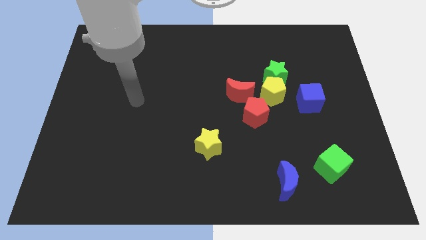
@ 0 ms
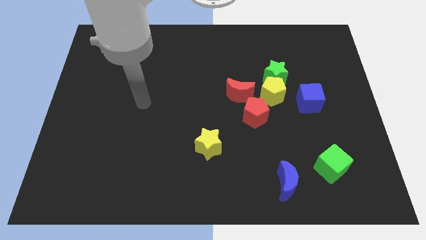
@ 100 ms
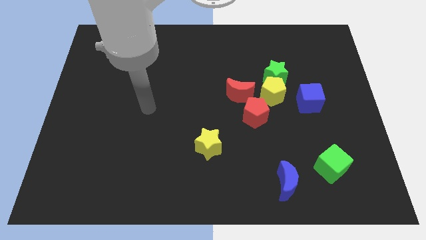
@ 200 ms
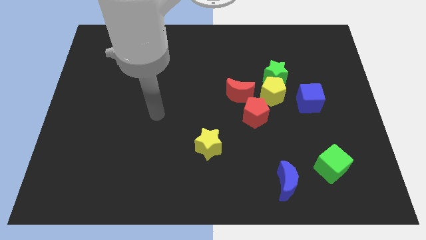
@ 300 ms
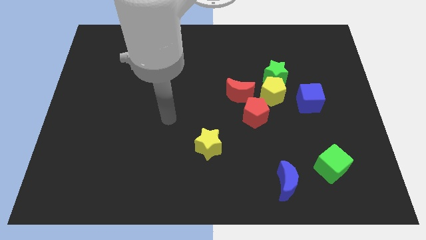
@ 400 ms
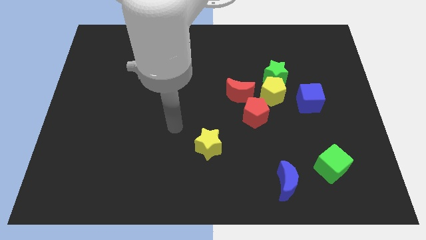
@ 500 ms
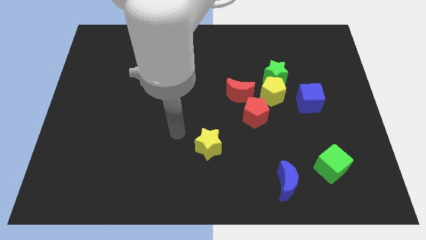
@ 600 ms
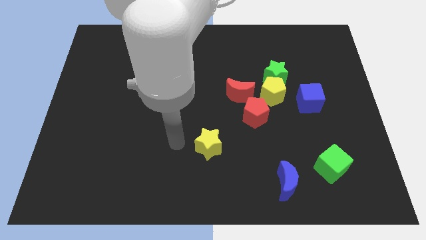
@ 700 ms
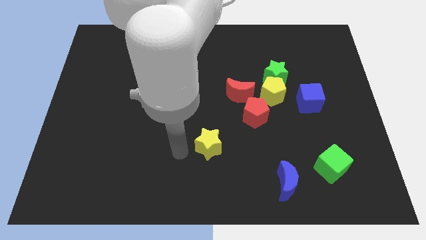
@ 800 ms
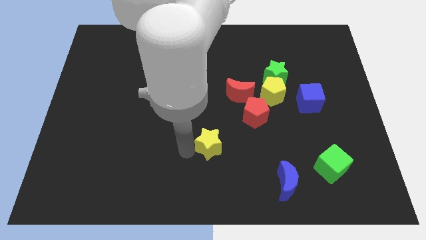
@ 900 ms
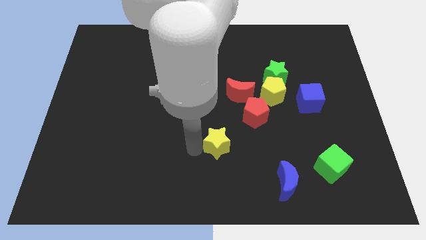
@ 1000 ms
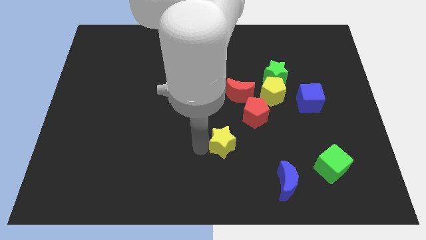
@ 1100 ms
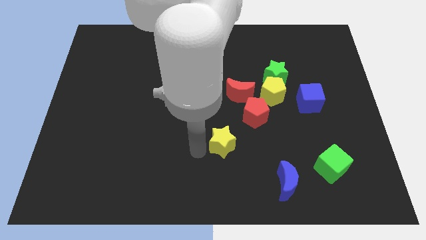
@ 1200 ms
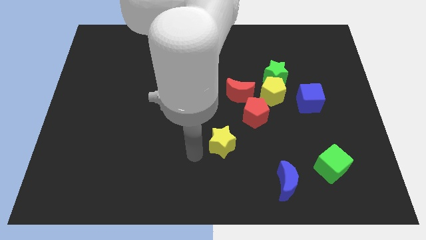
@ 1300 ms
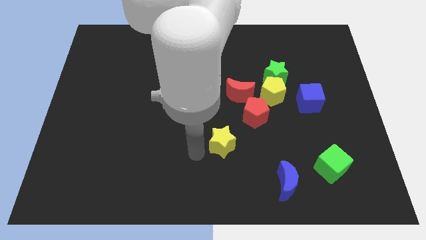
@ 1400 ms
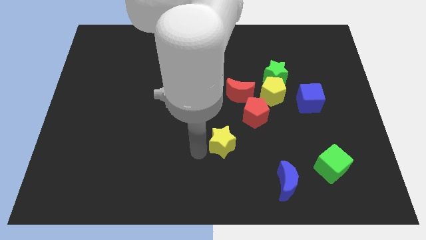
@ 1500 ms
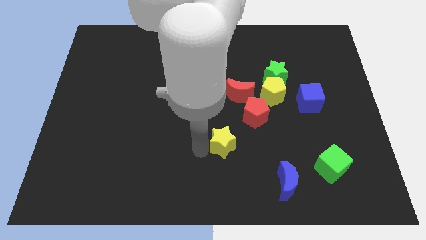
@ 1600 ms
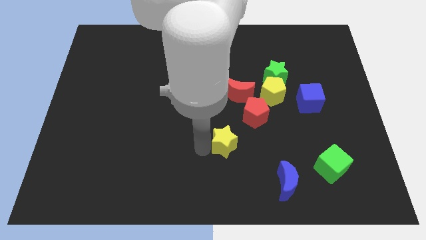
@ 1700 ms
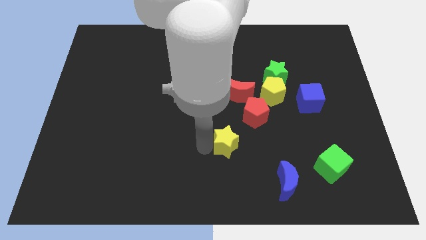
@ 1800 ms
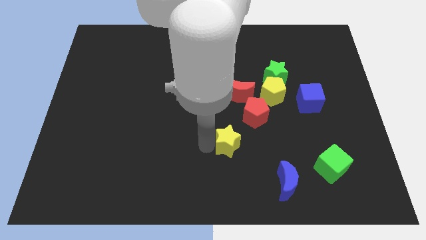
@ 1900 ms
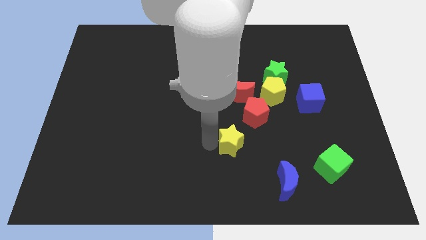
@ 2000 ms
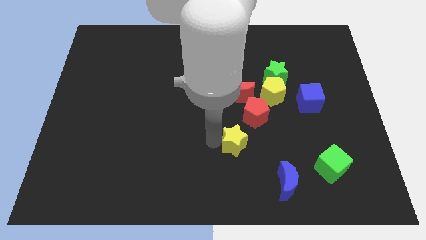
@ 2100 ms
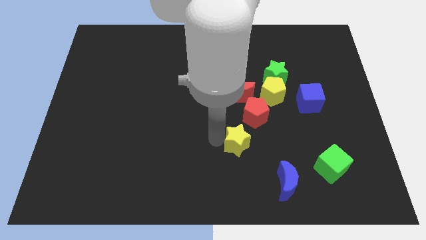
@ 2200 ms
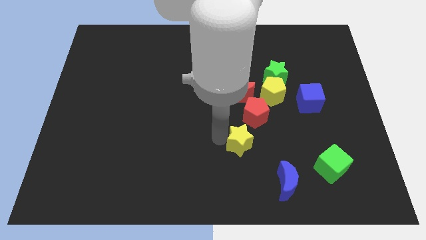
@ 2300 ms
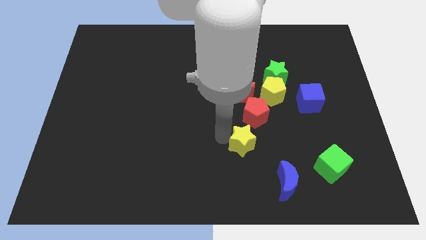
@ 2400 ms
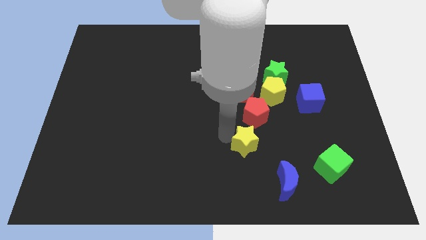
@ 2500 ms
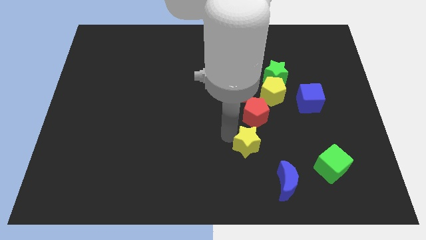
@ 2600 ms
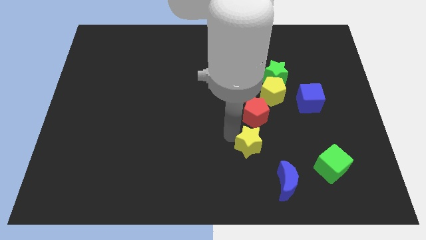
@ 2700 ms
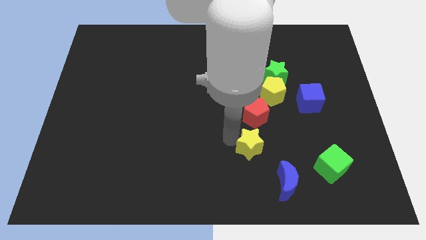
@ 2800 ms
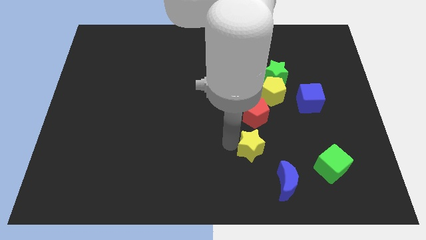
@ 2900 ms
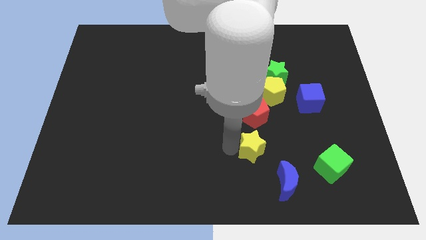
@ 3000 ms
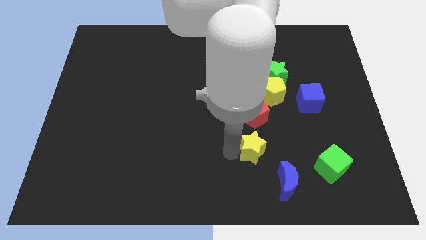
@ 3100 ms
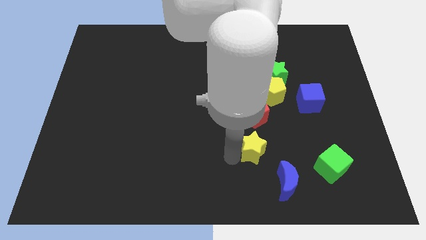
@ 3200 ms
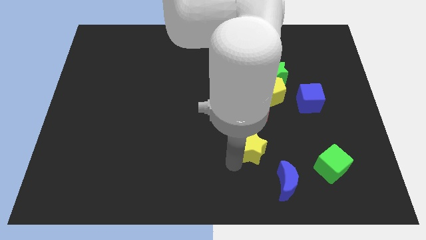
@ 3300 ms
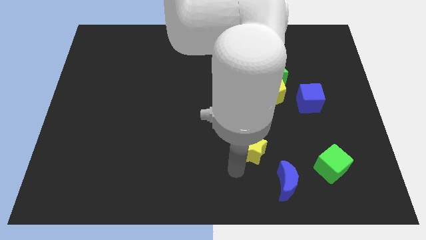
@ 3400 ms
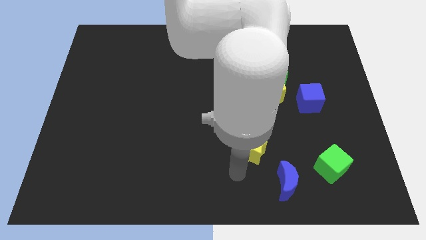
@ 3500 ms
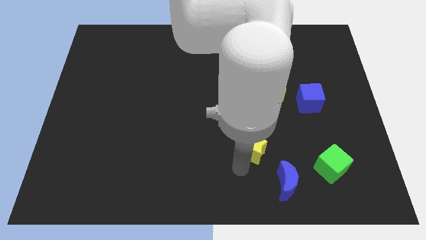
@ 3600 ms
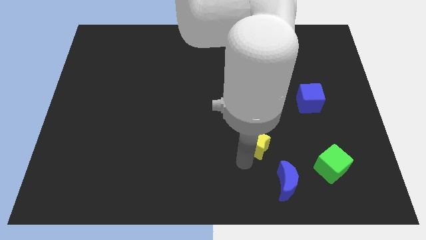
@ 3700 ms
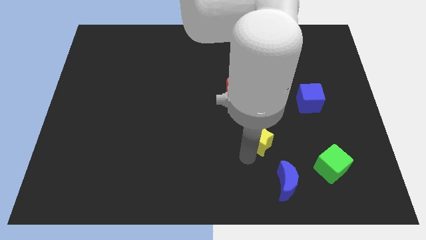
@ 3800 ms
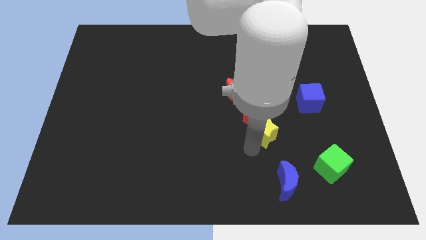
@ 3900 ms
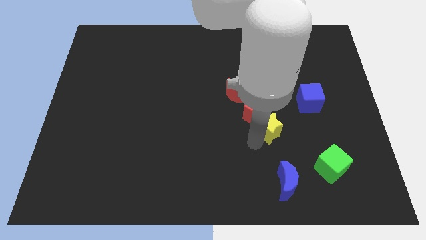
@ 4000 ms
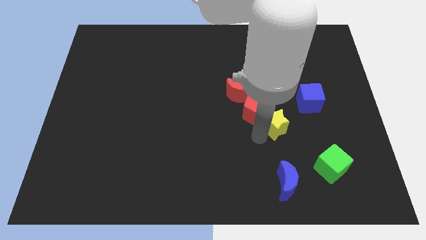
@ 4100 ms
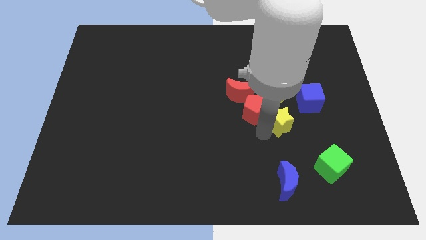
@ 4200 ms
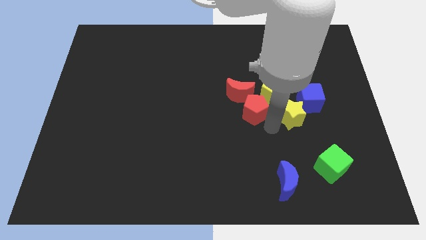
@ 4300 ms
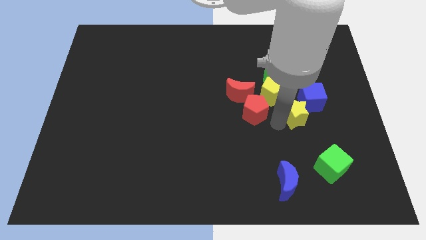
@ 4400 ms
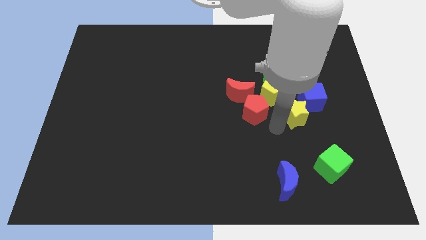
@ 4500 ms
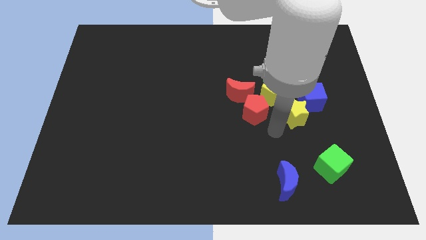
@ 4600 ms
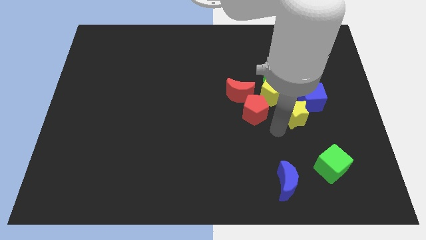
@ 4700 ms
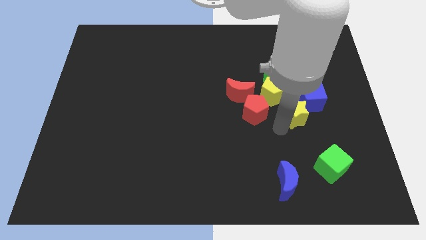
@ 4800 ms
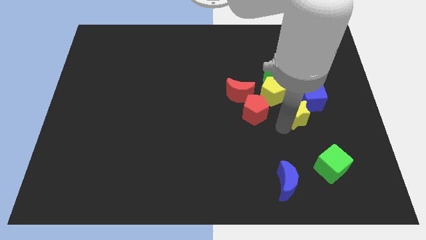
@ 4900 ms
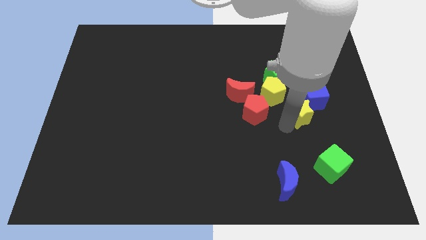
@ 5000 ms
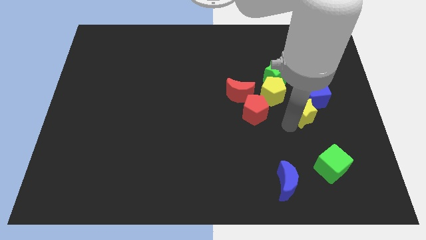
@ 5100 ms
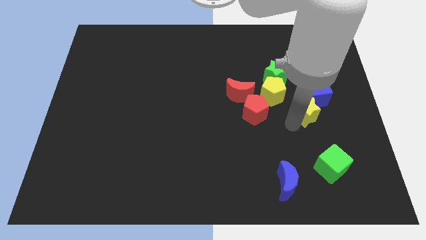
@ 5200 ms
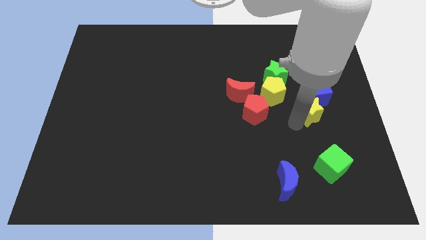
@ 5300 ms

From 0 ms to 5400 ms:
put the yellow star close to the blue cube

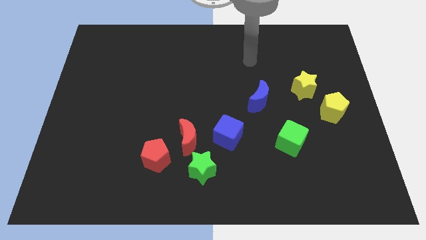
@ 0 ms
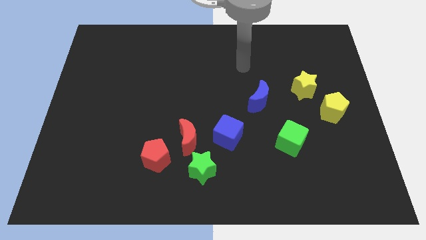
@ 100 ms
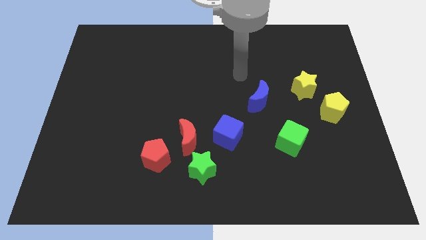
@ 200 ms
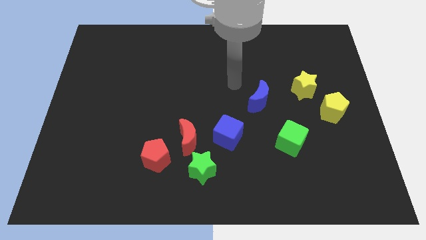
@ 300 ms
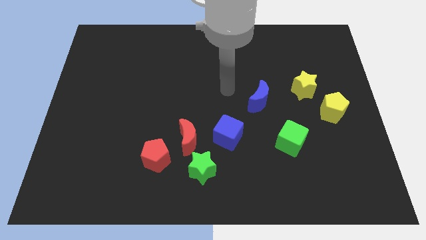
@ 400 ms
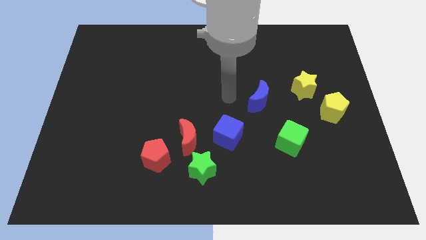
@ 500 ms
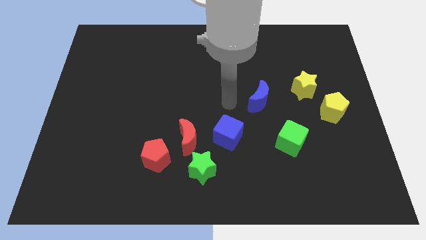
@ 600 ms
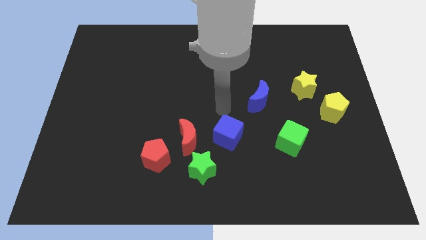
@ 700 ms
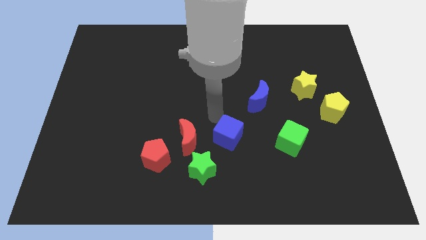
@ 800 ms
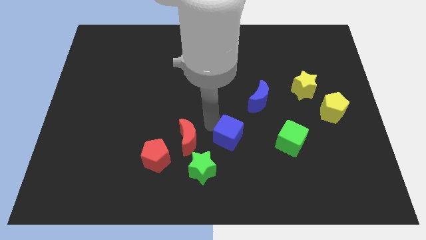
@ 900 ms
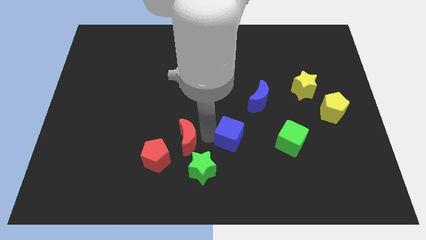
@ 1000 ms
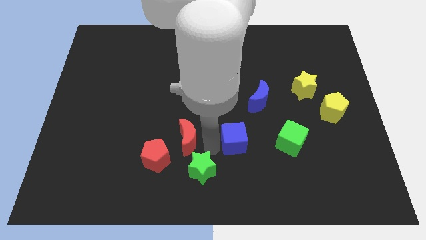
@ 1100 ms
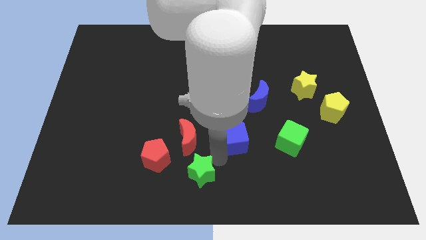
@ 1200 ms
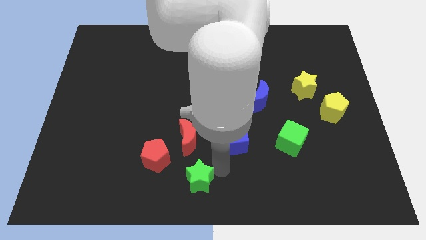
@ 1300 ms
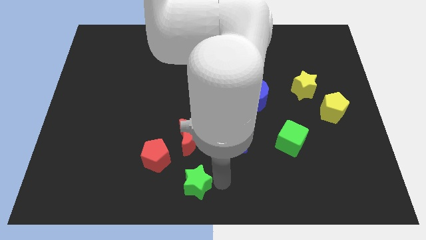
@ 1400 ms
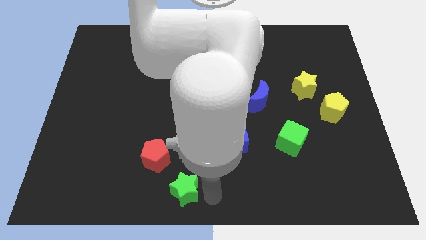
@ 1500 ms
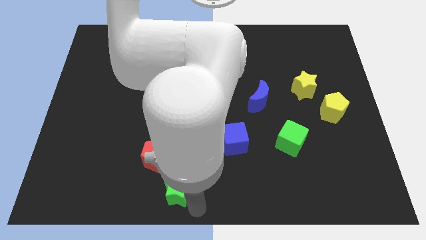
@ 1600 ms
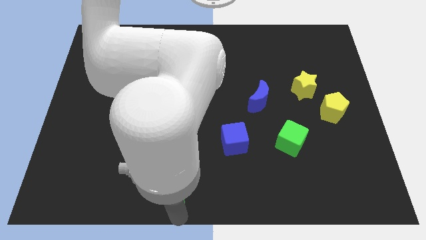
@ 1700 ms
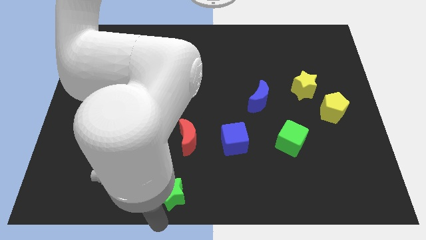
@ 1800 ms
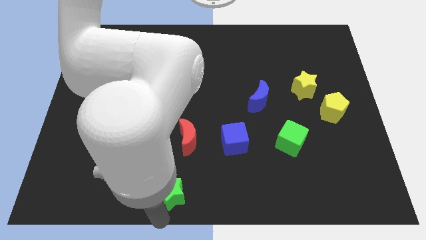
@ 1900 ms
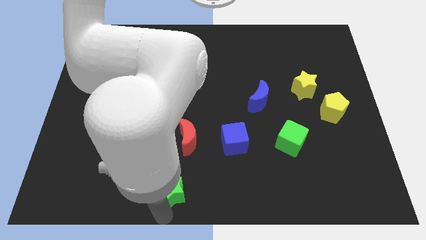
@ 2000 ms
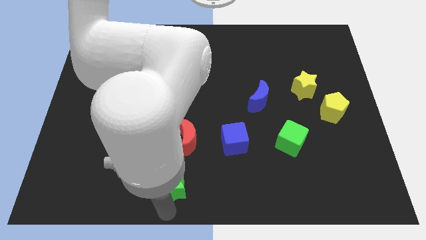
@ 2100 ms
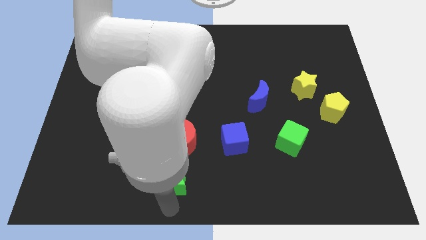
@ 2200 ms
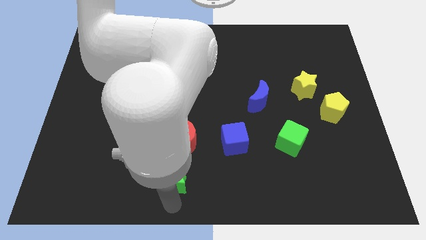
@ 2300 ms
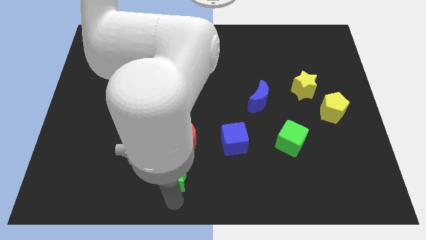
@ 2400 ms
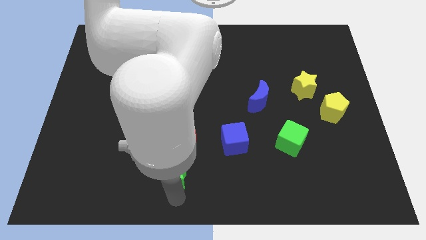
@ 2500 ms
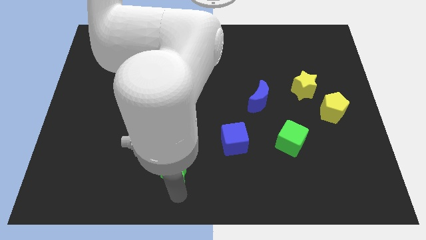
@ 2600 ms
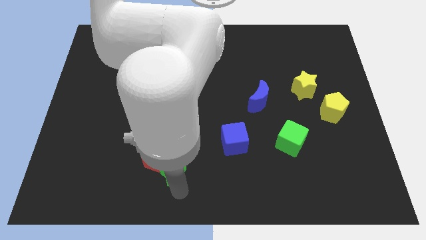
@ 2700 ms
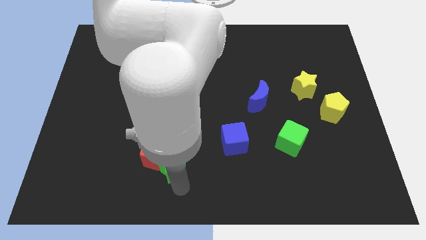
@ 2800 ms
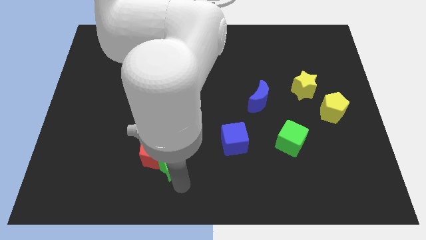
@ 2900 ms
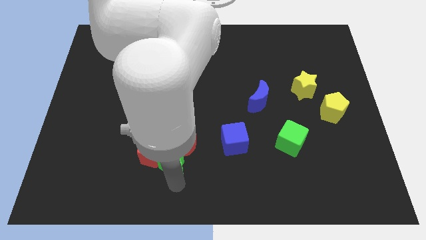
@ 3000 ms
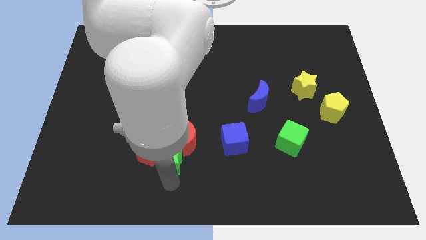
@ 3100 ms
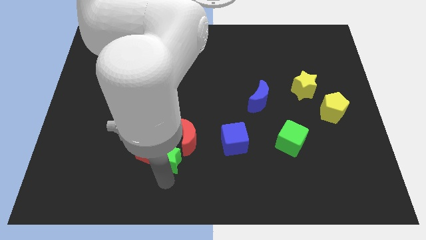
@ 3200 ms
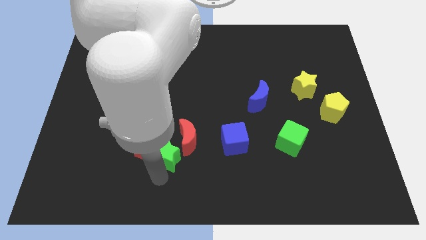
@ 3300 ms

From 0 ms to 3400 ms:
slide the green star next to the red moon
